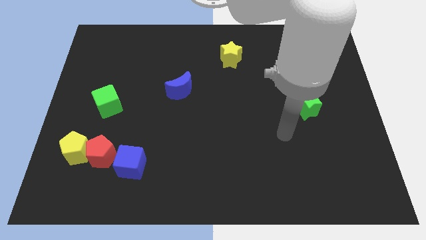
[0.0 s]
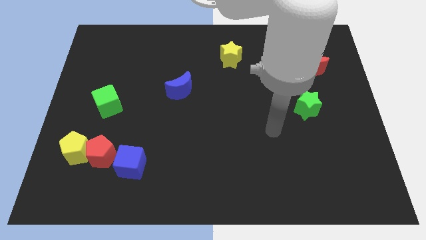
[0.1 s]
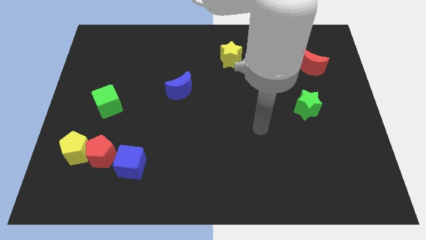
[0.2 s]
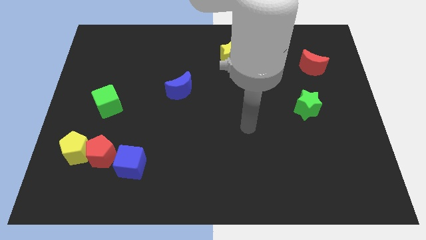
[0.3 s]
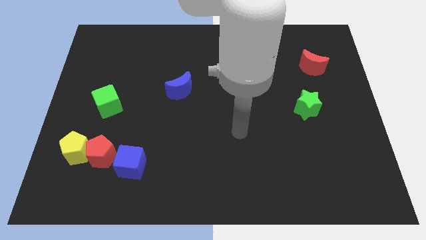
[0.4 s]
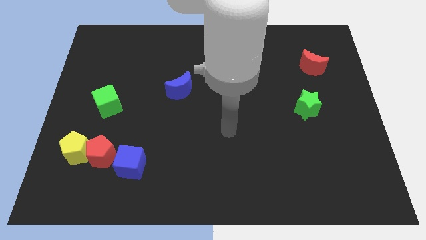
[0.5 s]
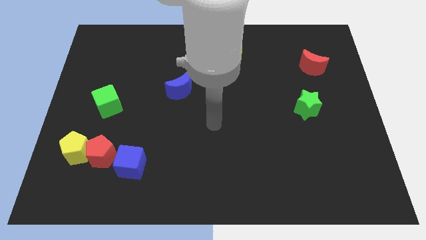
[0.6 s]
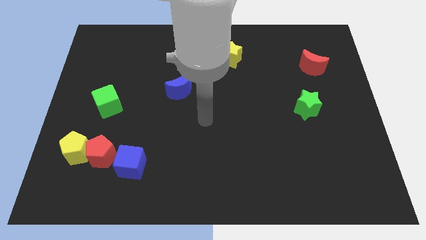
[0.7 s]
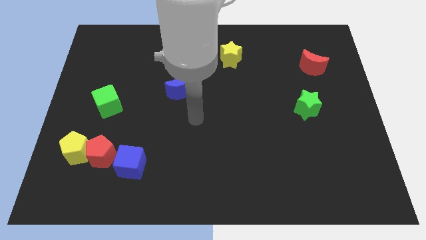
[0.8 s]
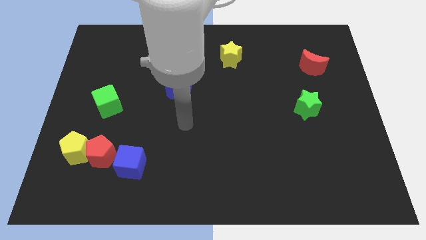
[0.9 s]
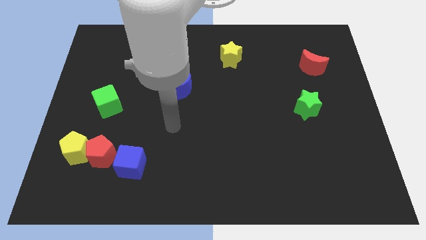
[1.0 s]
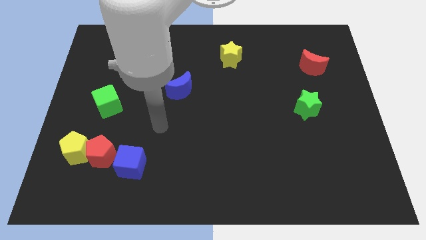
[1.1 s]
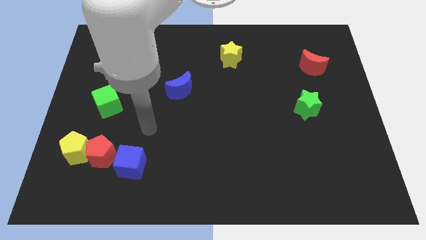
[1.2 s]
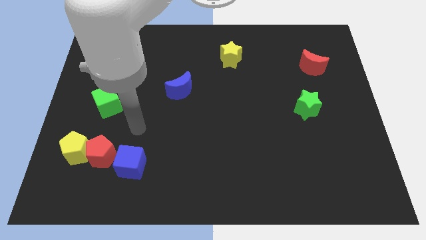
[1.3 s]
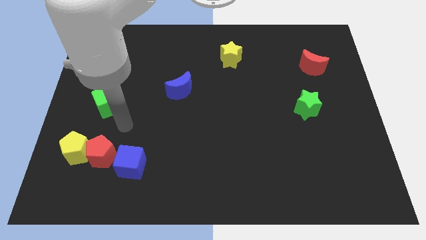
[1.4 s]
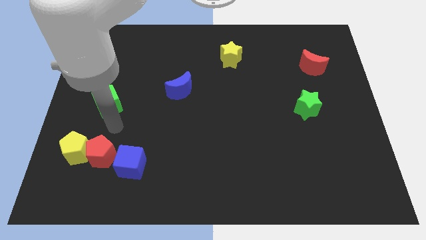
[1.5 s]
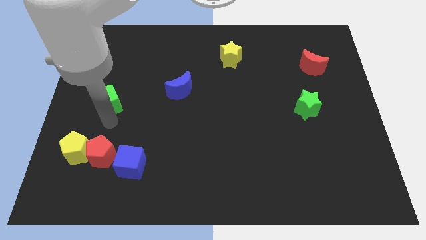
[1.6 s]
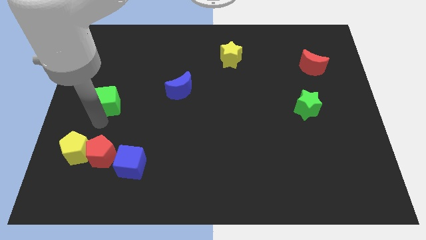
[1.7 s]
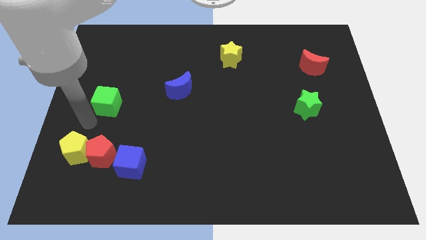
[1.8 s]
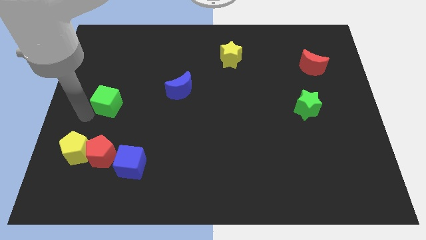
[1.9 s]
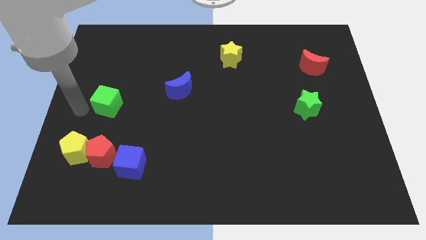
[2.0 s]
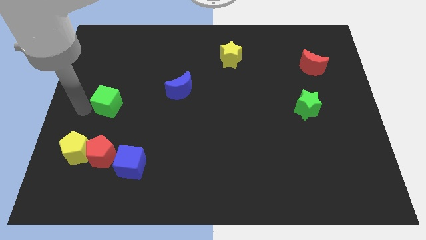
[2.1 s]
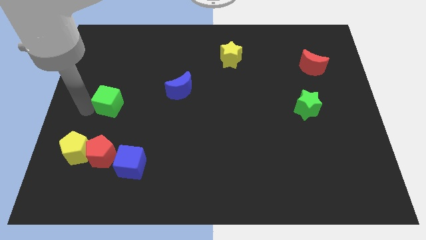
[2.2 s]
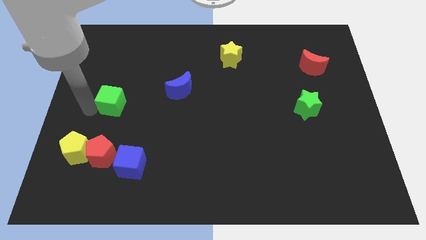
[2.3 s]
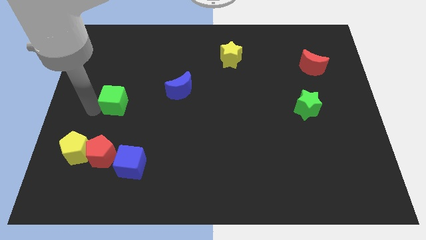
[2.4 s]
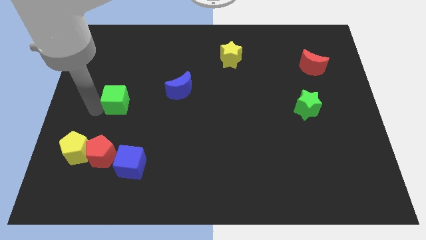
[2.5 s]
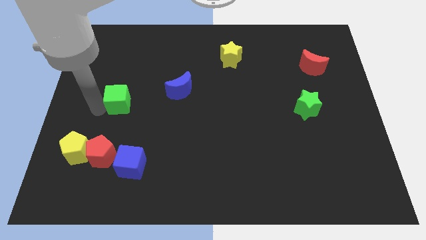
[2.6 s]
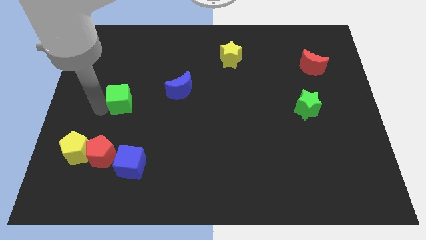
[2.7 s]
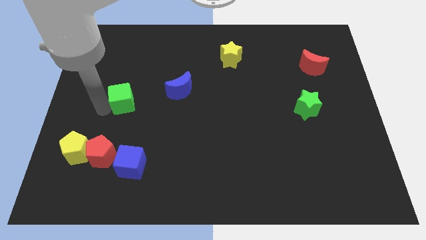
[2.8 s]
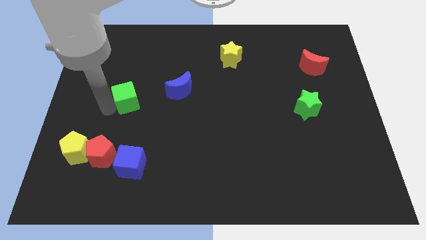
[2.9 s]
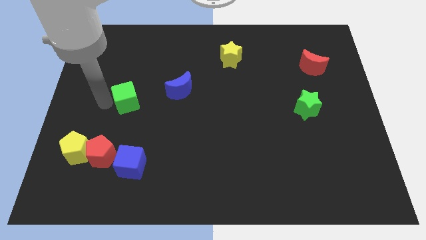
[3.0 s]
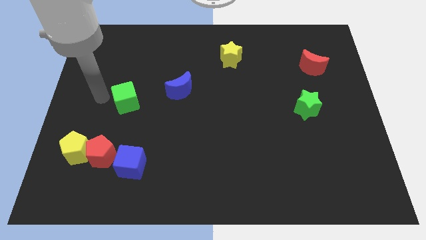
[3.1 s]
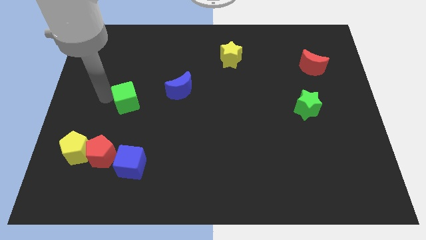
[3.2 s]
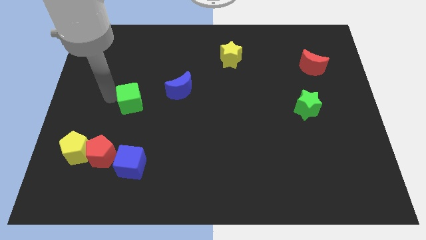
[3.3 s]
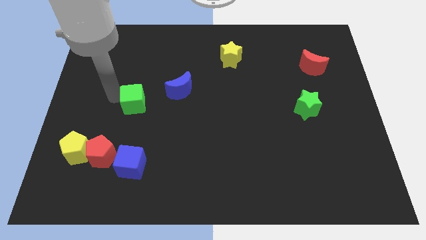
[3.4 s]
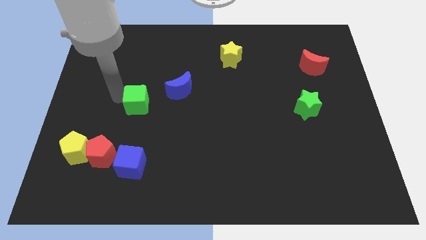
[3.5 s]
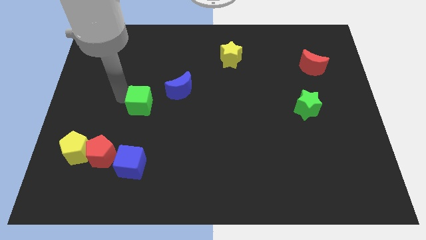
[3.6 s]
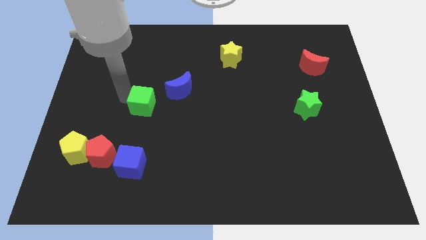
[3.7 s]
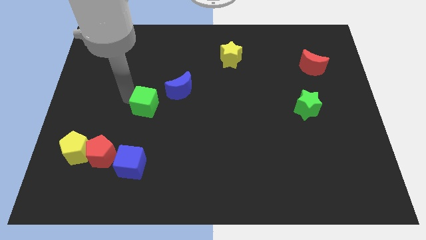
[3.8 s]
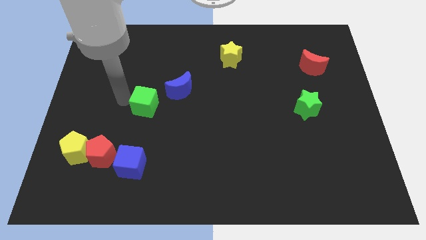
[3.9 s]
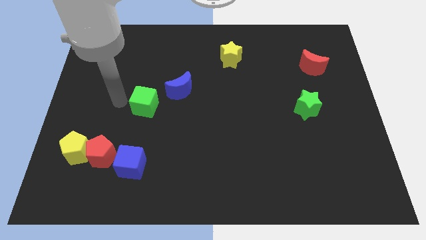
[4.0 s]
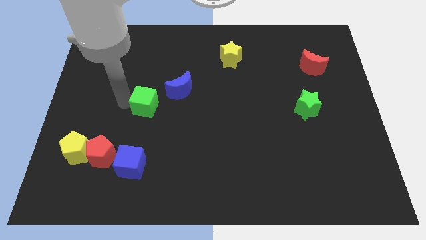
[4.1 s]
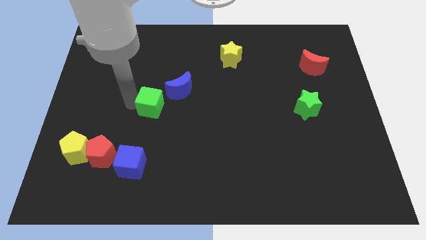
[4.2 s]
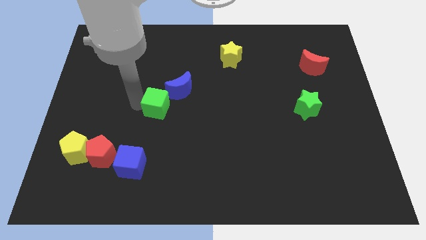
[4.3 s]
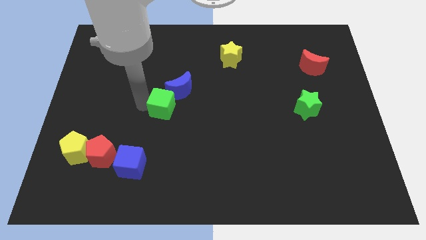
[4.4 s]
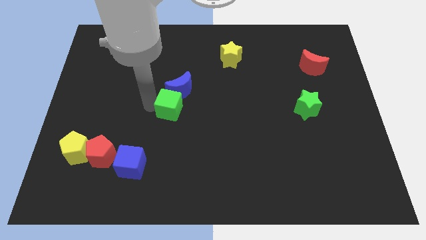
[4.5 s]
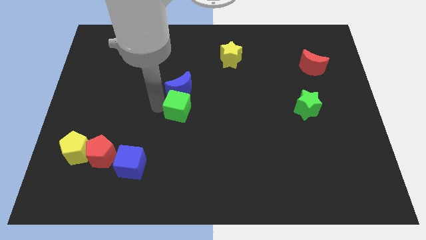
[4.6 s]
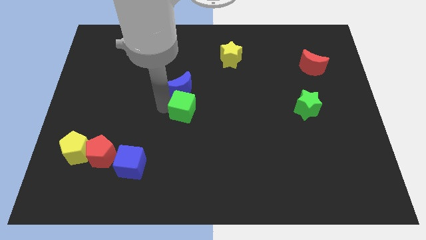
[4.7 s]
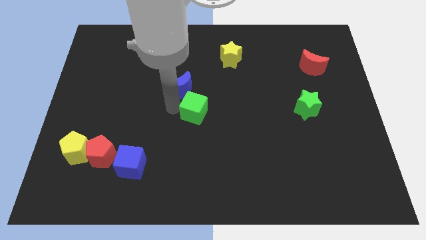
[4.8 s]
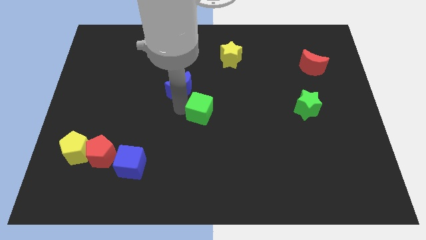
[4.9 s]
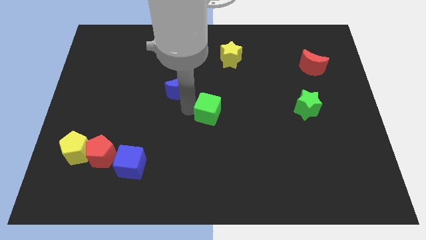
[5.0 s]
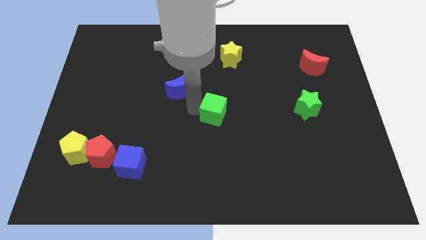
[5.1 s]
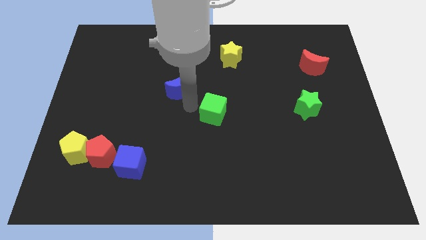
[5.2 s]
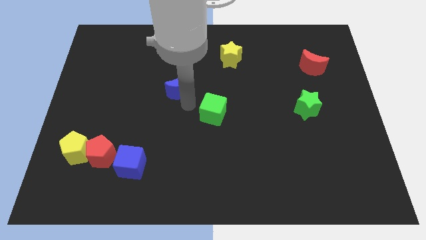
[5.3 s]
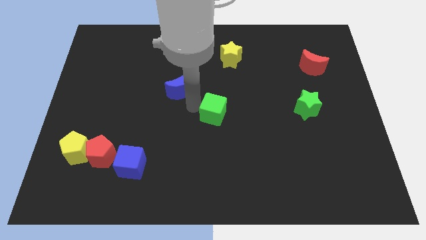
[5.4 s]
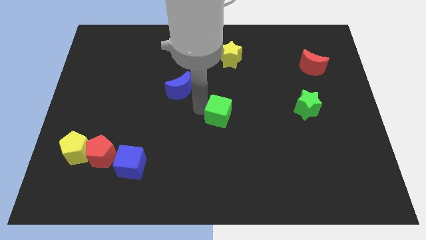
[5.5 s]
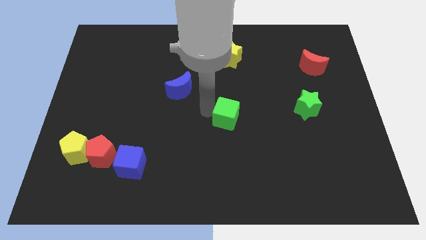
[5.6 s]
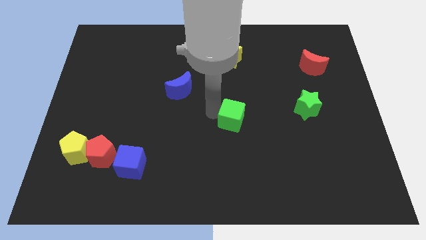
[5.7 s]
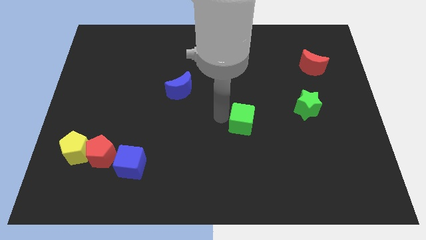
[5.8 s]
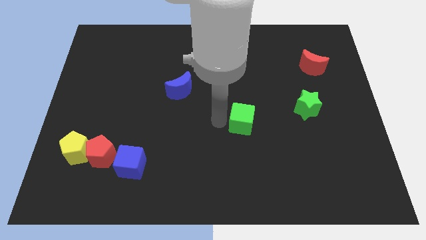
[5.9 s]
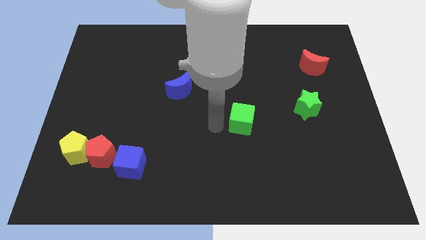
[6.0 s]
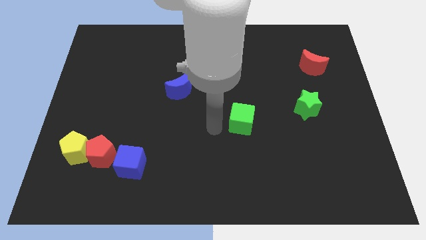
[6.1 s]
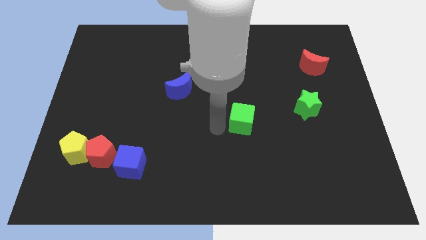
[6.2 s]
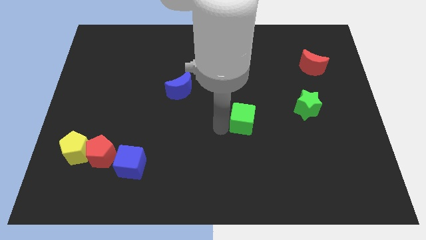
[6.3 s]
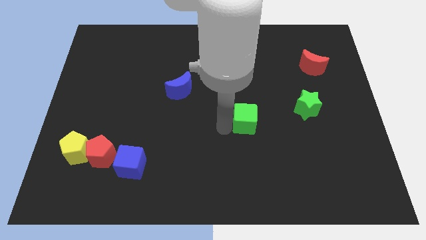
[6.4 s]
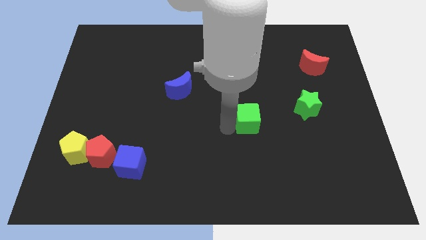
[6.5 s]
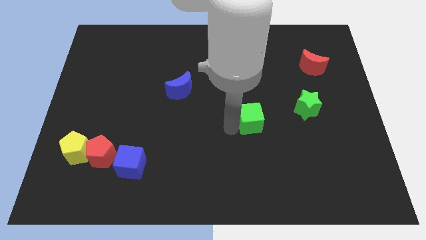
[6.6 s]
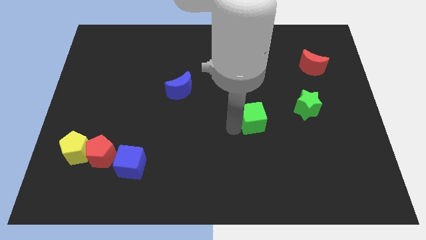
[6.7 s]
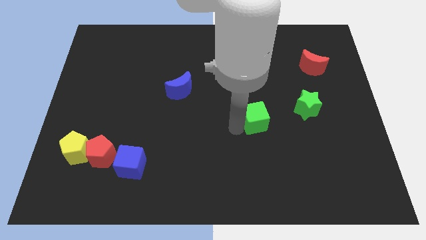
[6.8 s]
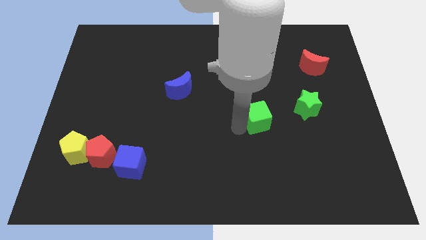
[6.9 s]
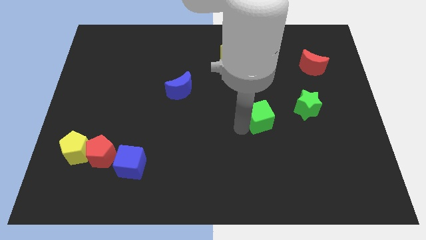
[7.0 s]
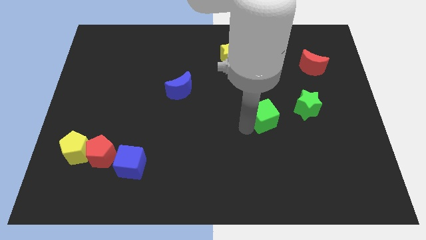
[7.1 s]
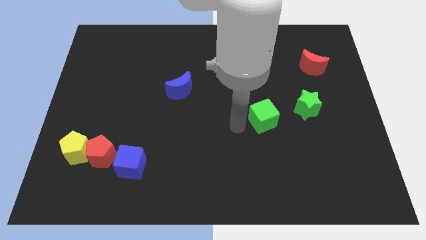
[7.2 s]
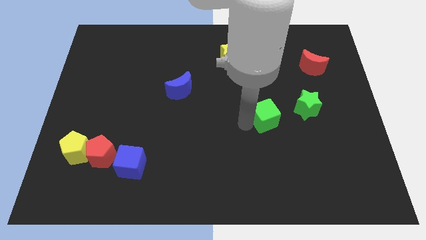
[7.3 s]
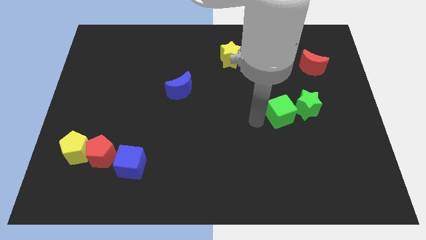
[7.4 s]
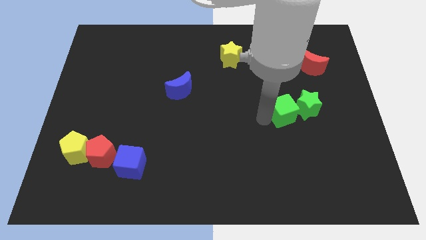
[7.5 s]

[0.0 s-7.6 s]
push the green cube towards the green star
